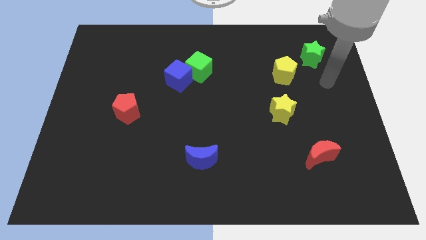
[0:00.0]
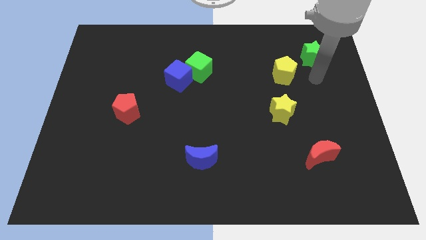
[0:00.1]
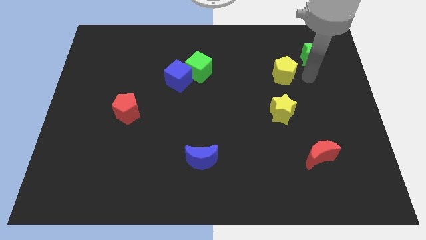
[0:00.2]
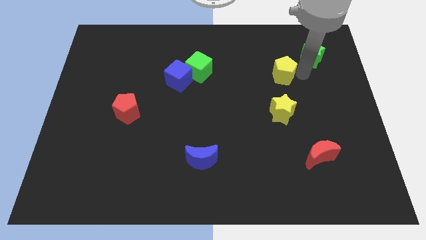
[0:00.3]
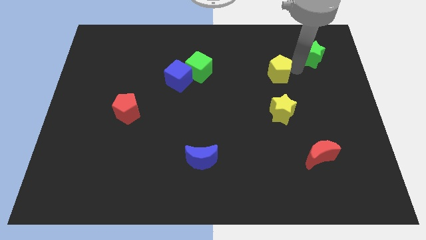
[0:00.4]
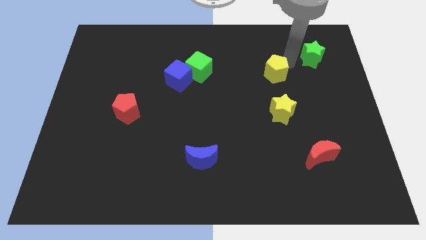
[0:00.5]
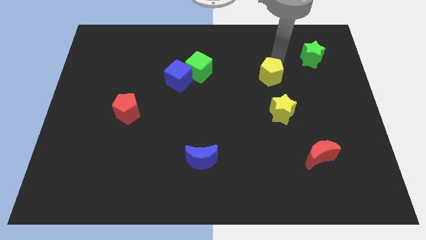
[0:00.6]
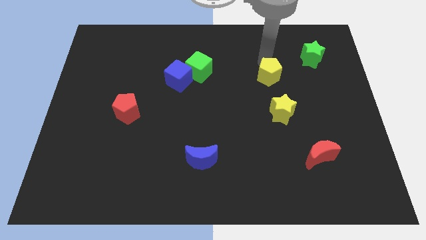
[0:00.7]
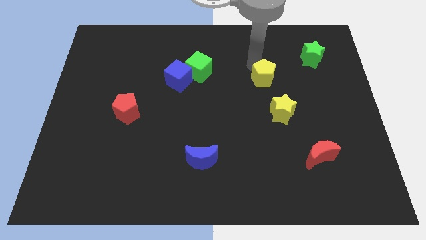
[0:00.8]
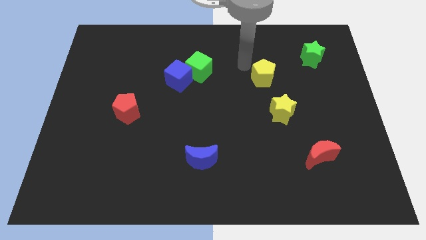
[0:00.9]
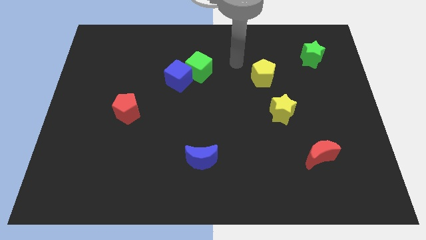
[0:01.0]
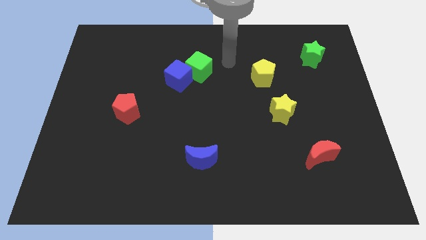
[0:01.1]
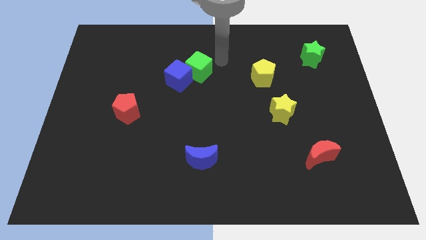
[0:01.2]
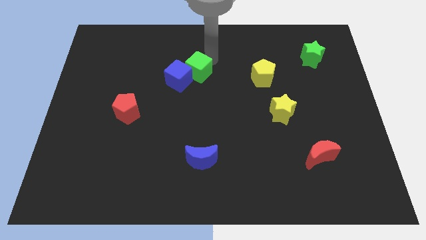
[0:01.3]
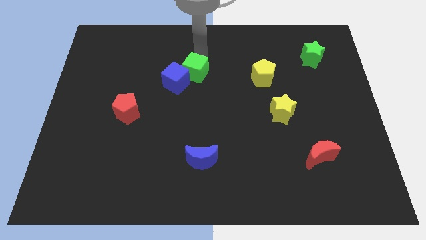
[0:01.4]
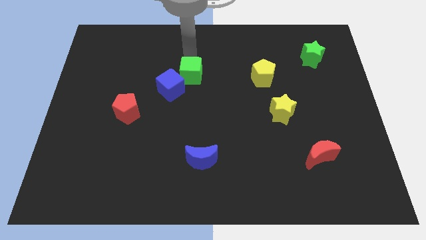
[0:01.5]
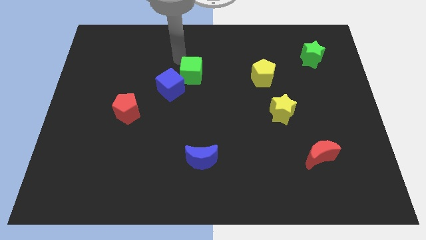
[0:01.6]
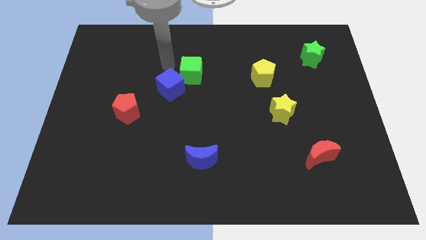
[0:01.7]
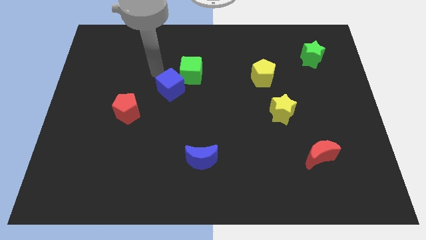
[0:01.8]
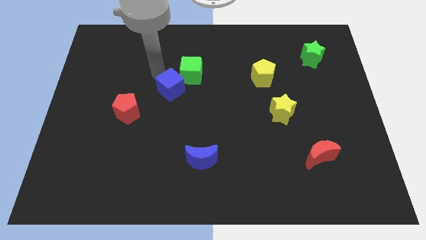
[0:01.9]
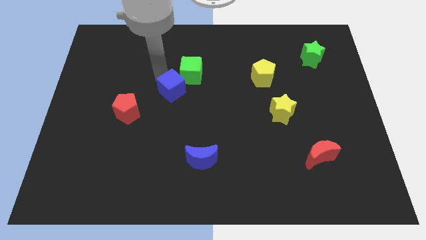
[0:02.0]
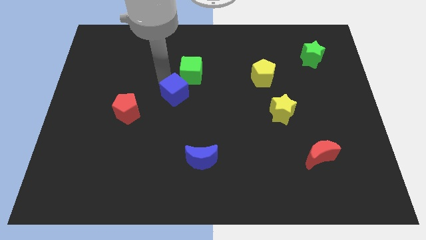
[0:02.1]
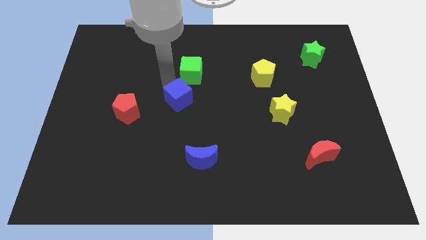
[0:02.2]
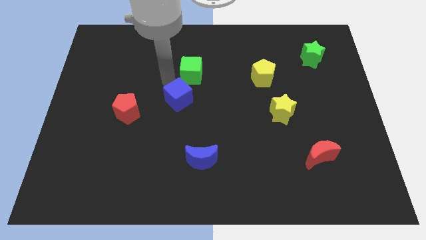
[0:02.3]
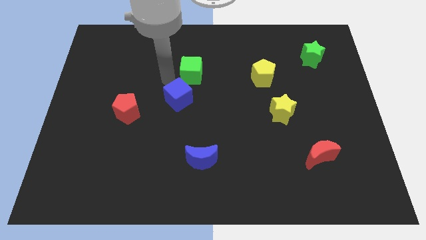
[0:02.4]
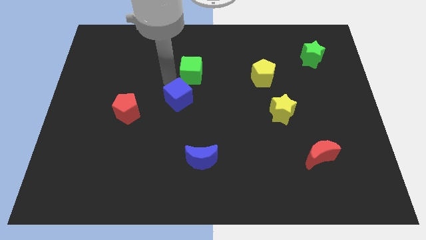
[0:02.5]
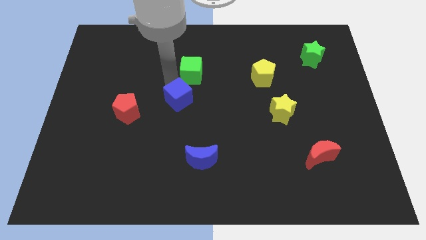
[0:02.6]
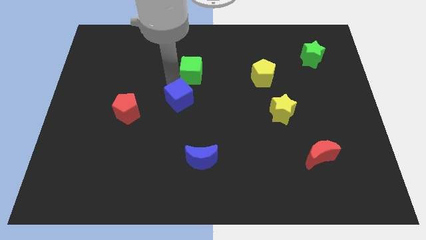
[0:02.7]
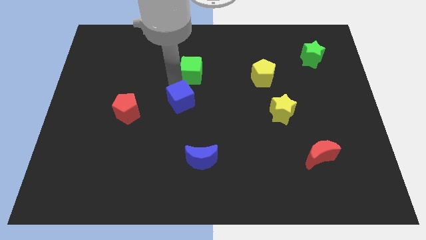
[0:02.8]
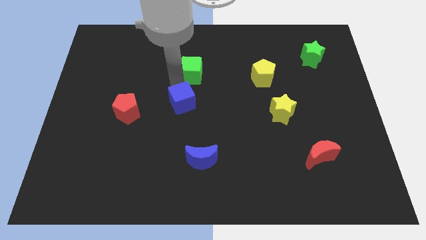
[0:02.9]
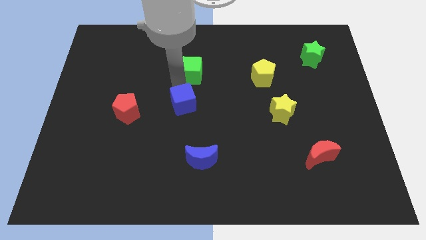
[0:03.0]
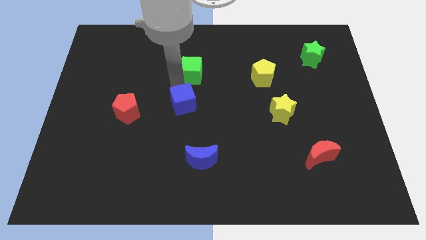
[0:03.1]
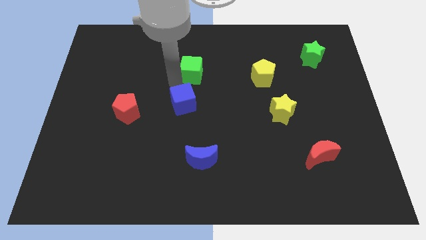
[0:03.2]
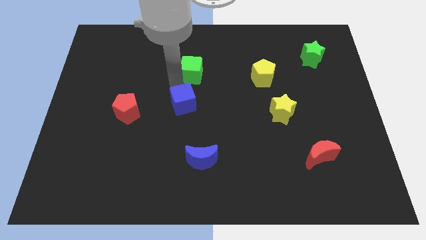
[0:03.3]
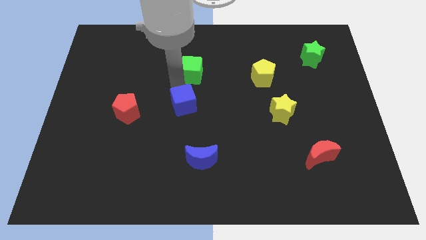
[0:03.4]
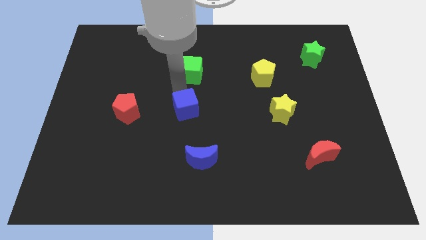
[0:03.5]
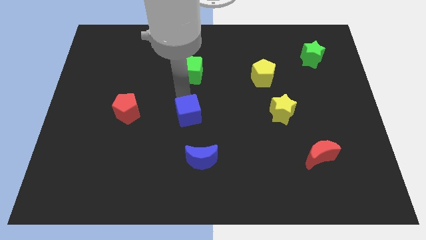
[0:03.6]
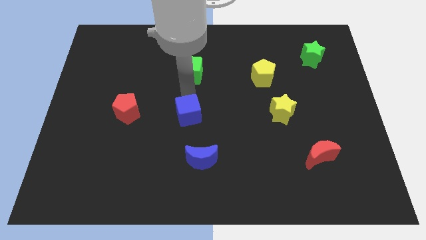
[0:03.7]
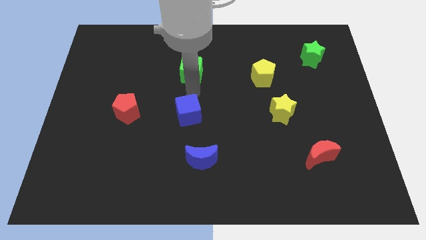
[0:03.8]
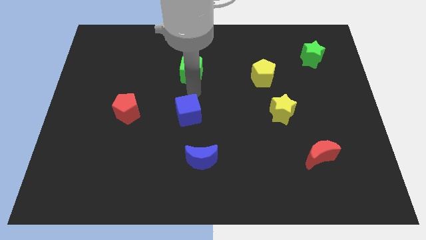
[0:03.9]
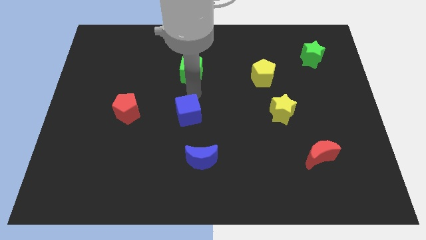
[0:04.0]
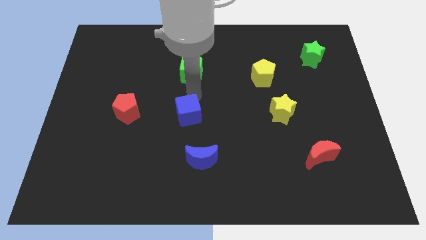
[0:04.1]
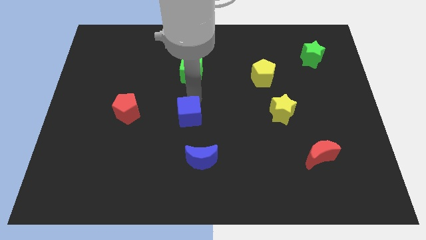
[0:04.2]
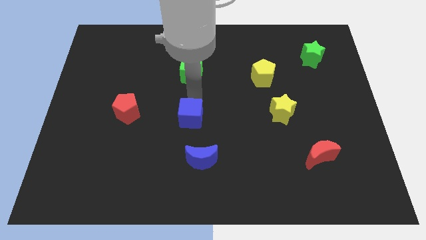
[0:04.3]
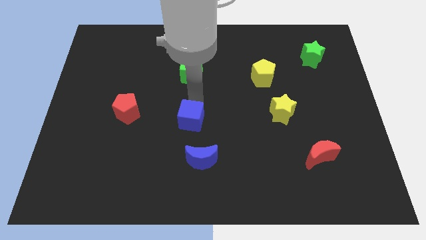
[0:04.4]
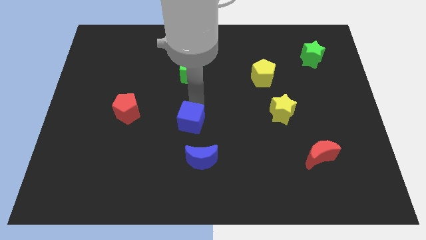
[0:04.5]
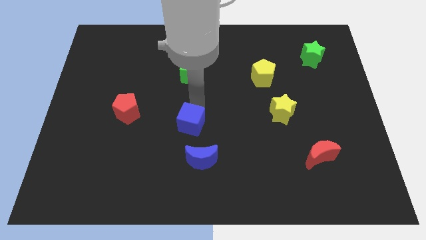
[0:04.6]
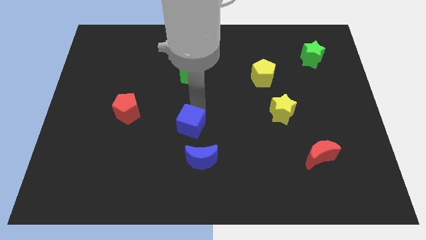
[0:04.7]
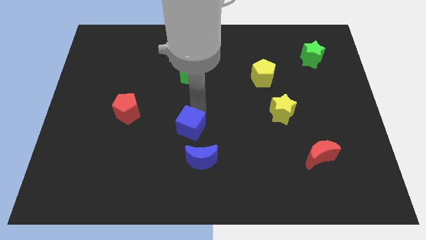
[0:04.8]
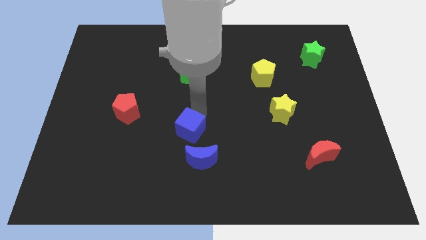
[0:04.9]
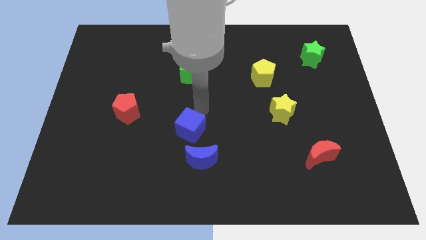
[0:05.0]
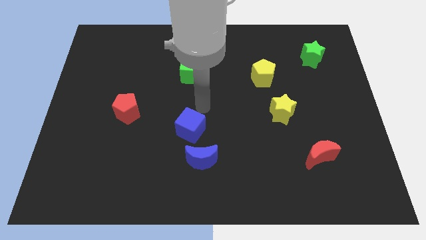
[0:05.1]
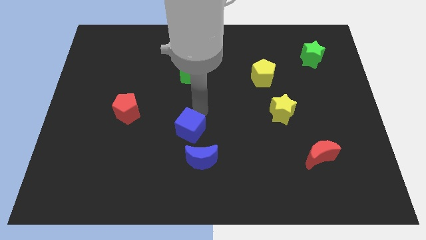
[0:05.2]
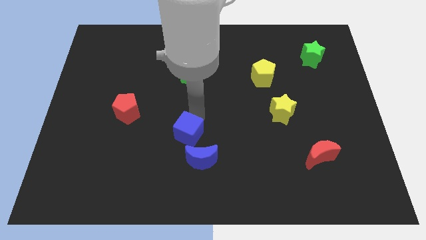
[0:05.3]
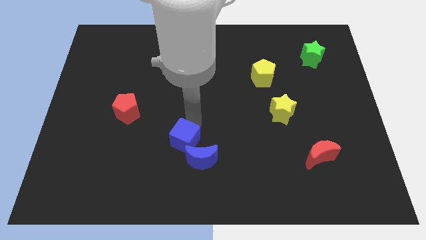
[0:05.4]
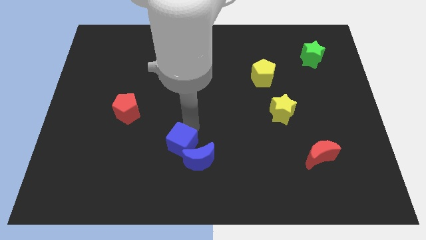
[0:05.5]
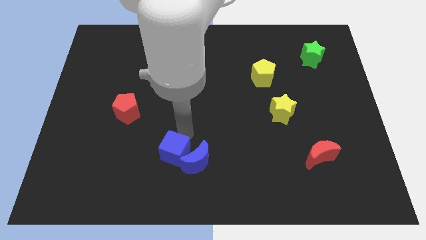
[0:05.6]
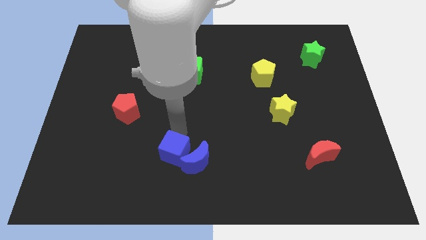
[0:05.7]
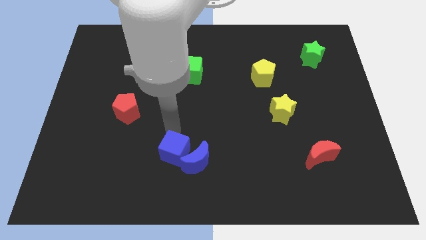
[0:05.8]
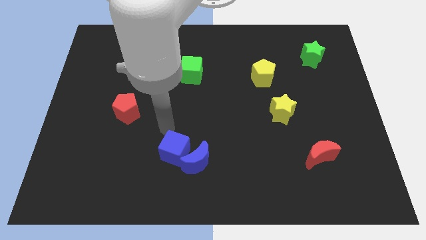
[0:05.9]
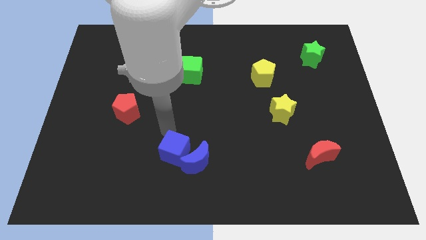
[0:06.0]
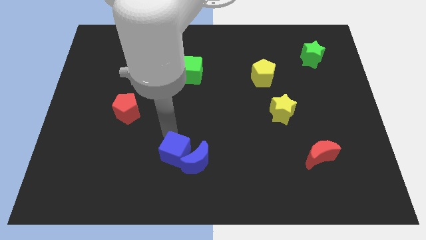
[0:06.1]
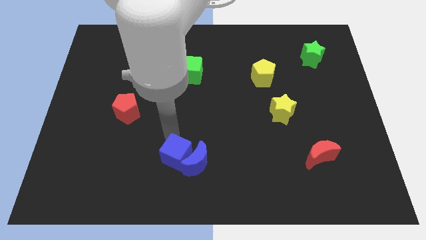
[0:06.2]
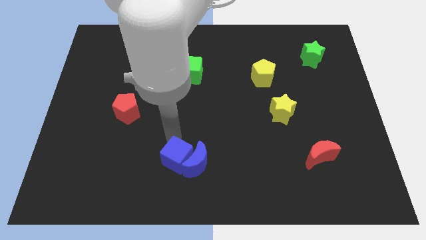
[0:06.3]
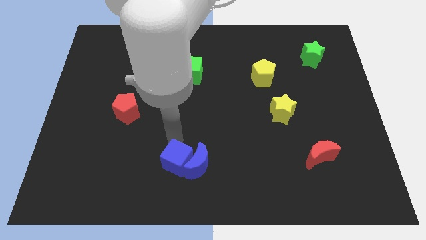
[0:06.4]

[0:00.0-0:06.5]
push the blue cube to the bottom side

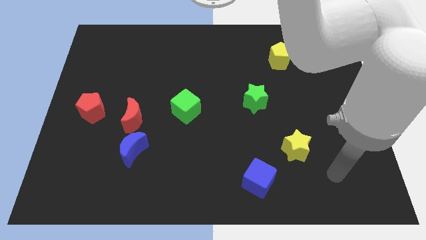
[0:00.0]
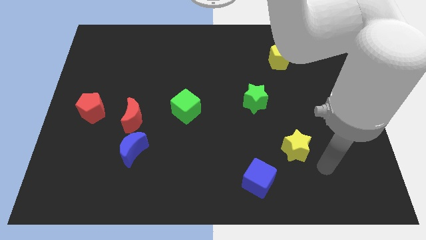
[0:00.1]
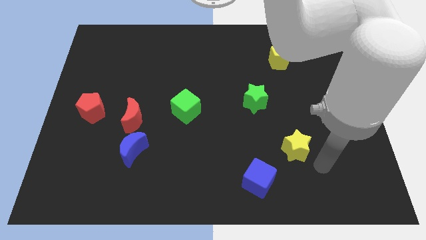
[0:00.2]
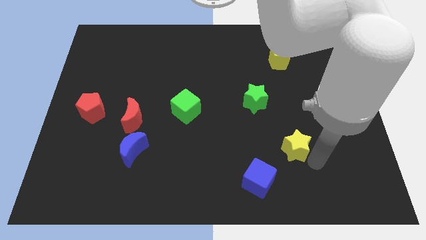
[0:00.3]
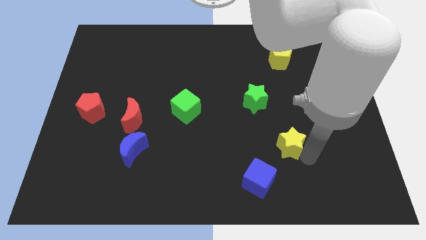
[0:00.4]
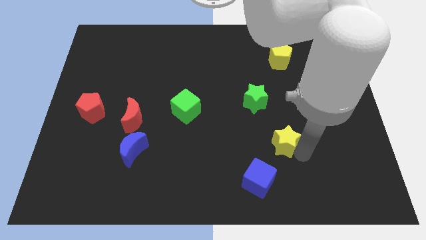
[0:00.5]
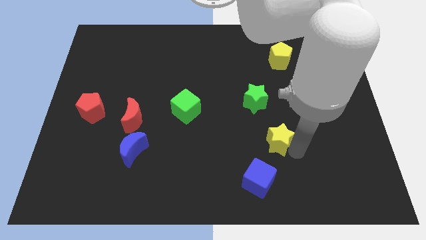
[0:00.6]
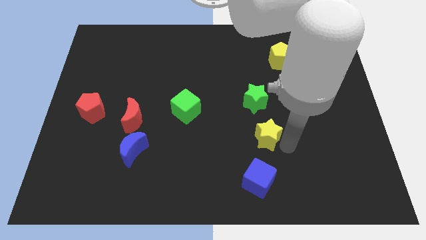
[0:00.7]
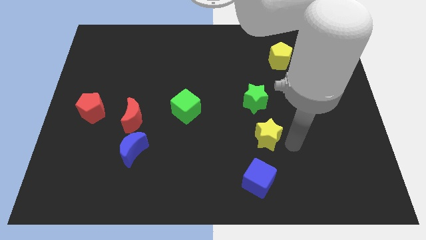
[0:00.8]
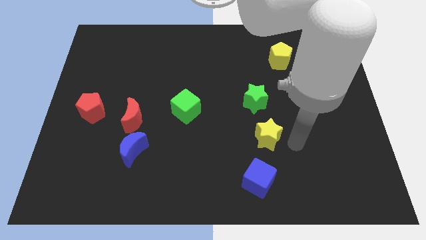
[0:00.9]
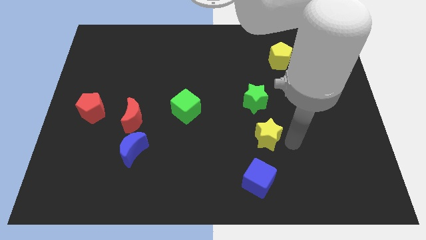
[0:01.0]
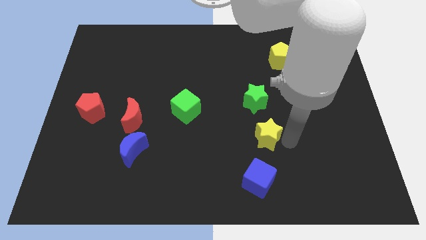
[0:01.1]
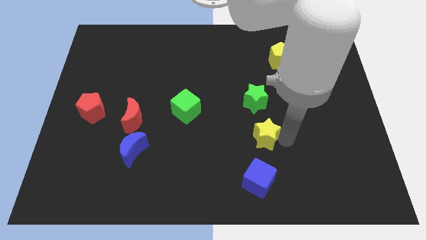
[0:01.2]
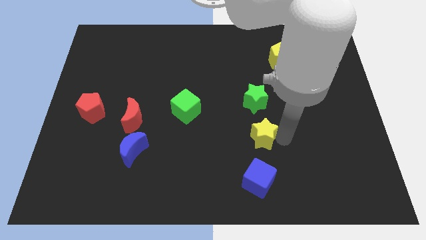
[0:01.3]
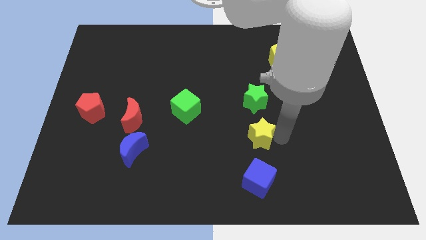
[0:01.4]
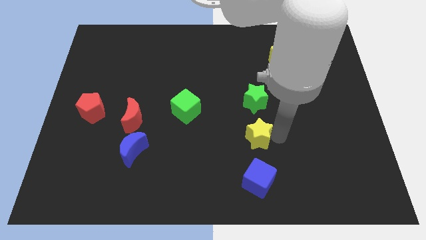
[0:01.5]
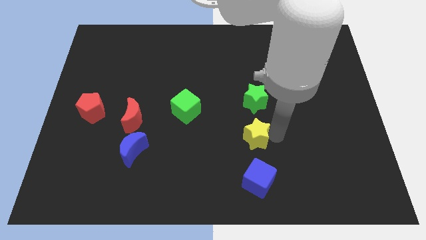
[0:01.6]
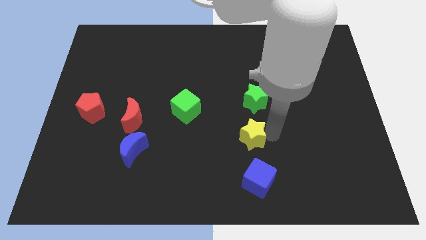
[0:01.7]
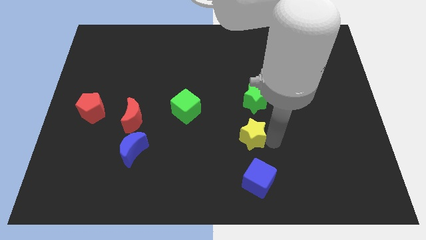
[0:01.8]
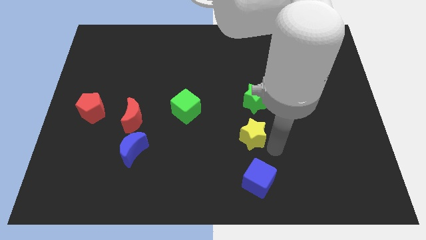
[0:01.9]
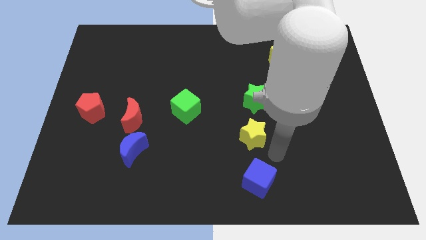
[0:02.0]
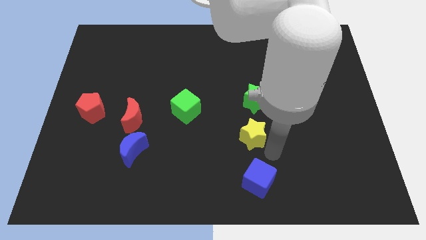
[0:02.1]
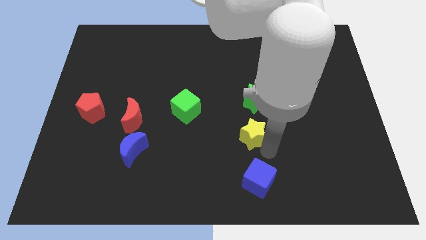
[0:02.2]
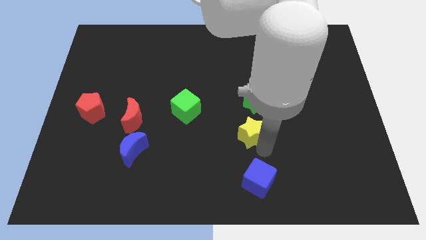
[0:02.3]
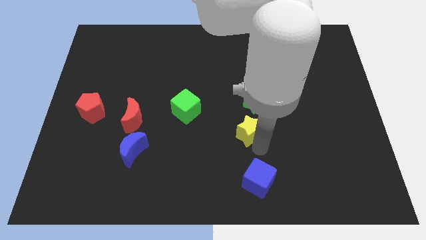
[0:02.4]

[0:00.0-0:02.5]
push the yellow star to the middle of the board
